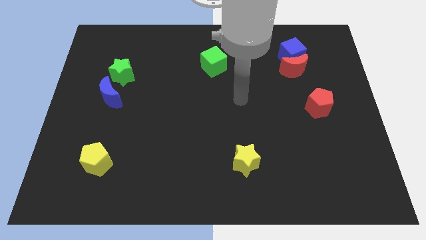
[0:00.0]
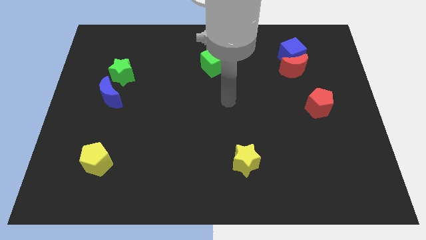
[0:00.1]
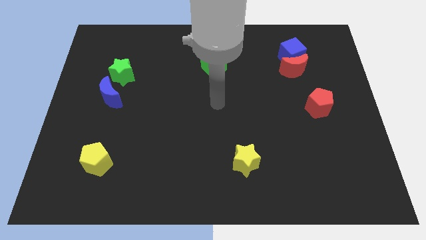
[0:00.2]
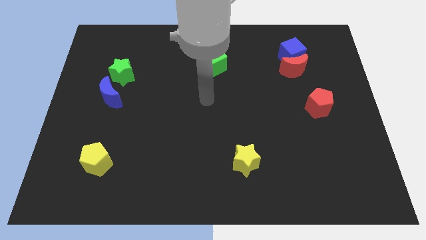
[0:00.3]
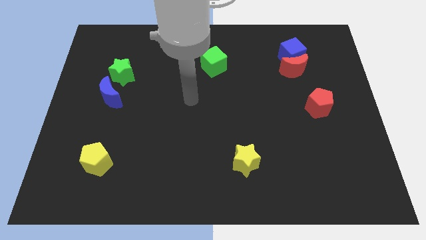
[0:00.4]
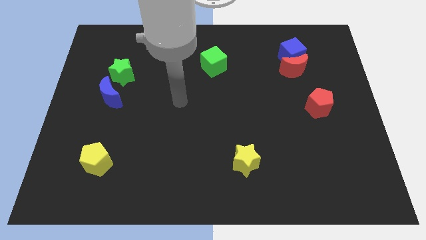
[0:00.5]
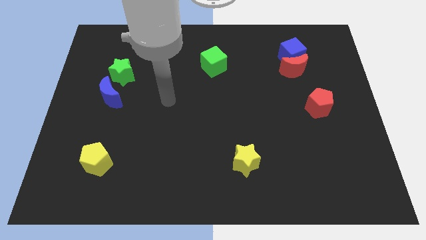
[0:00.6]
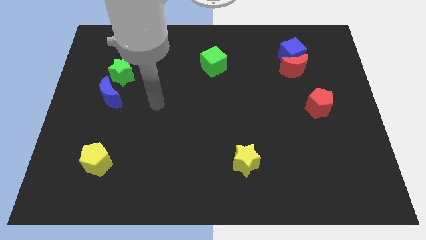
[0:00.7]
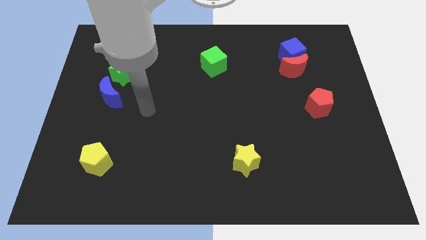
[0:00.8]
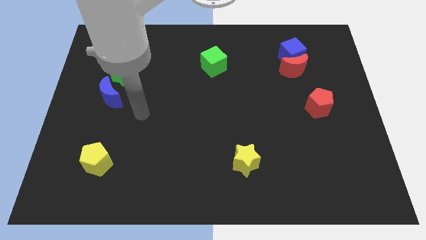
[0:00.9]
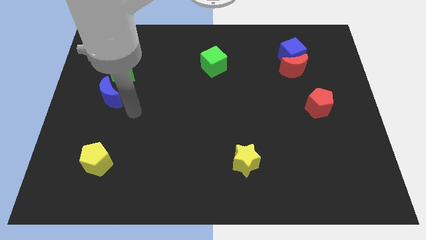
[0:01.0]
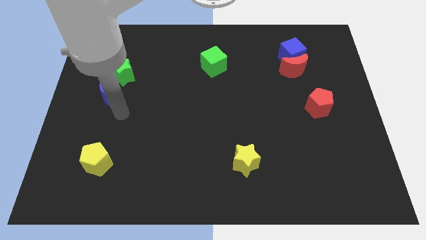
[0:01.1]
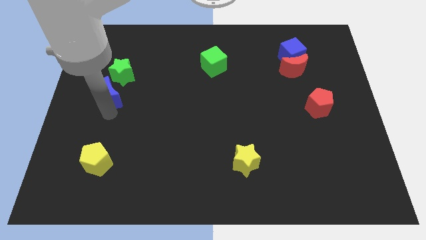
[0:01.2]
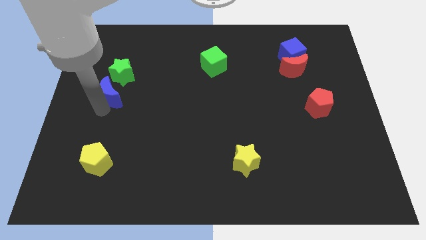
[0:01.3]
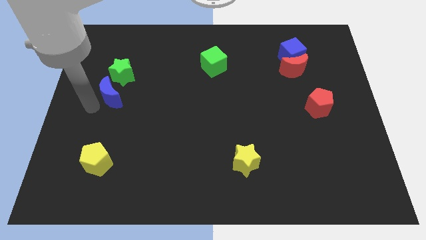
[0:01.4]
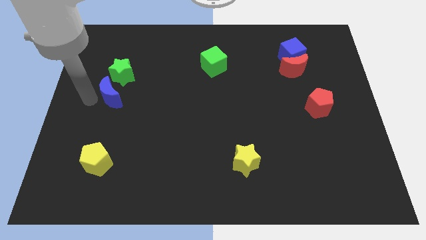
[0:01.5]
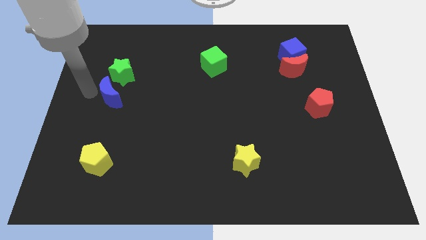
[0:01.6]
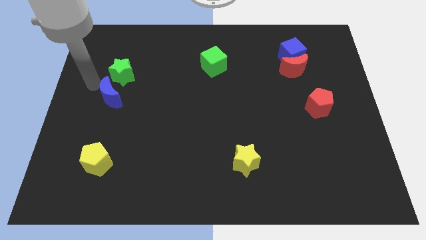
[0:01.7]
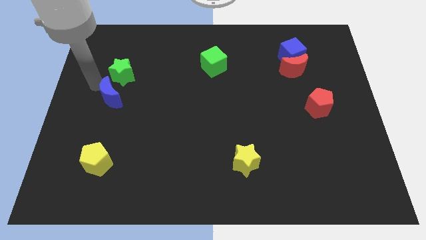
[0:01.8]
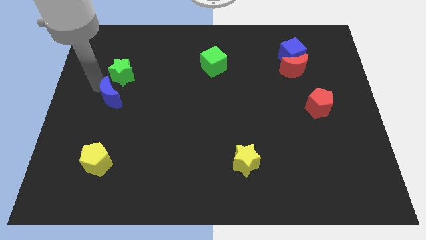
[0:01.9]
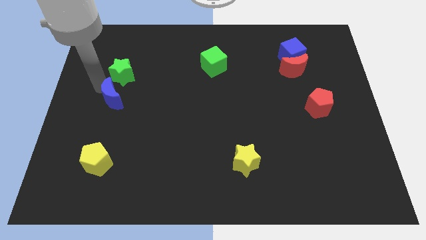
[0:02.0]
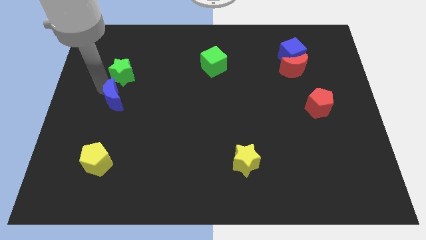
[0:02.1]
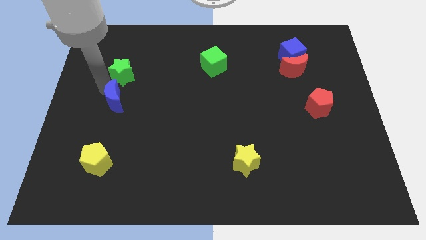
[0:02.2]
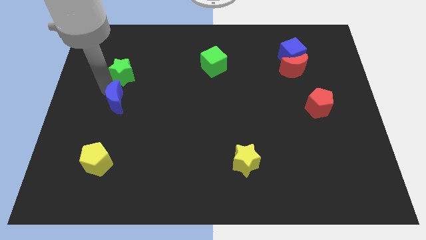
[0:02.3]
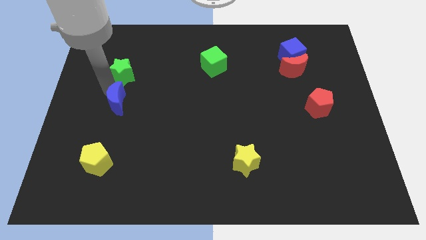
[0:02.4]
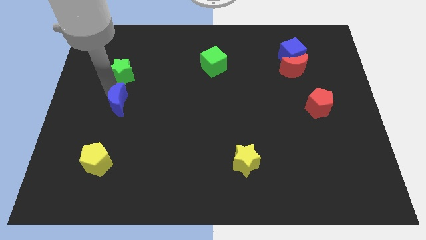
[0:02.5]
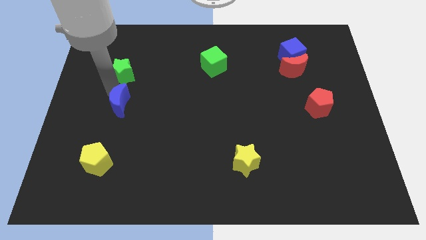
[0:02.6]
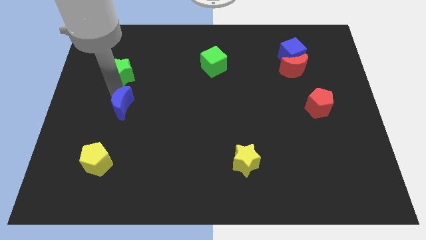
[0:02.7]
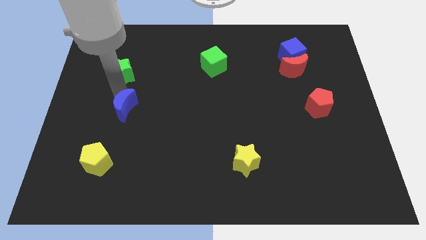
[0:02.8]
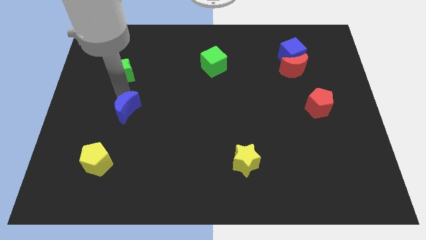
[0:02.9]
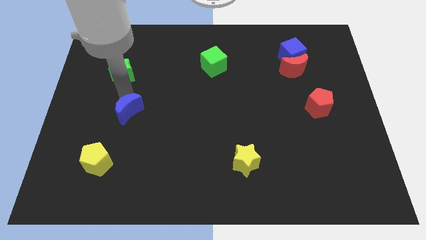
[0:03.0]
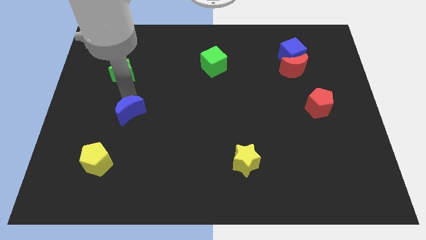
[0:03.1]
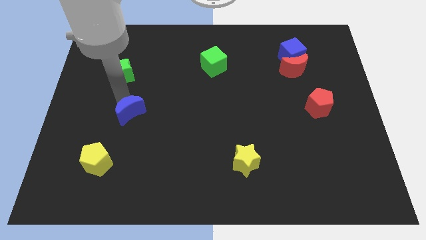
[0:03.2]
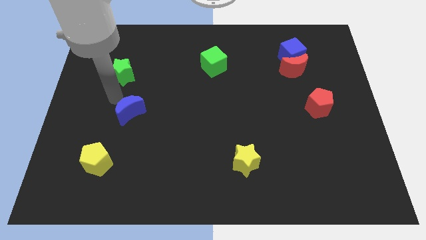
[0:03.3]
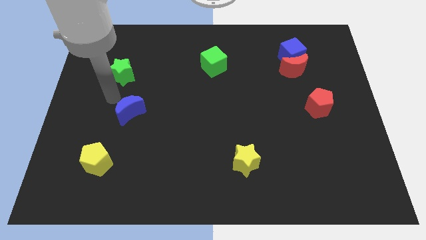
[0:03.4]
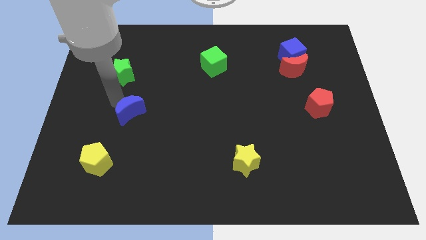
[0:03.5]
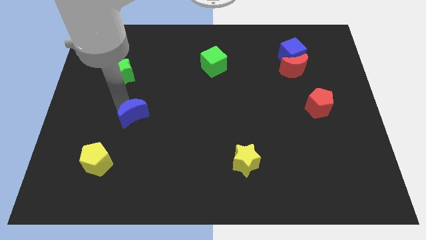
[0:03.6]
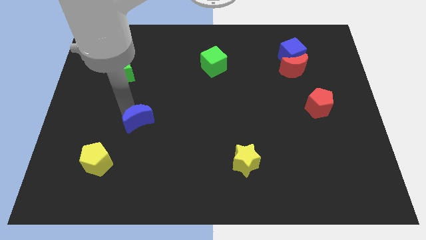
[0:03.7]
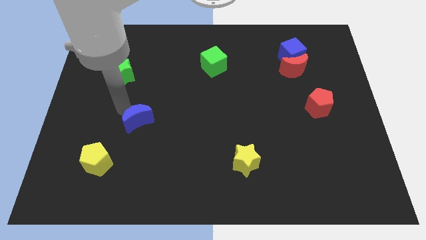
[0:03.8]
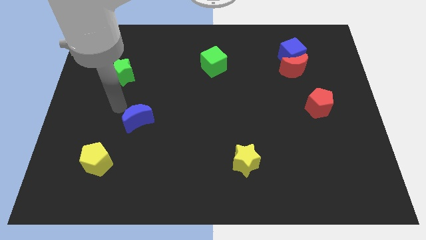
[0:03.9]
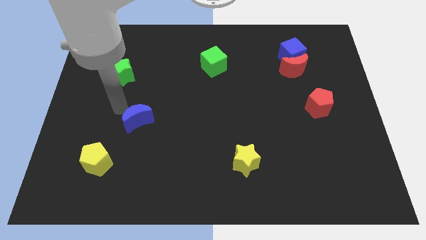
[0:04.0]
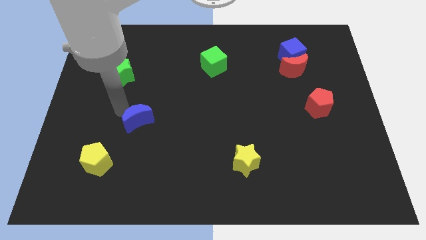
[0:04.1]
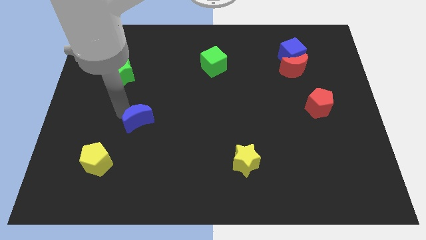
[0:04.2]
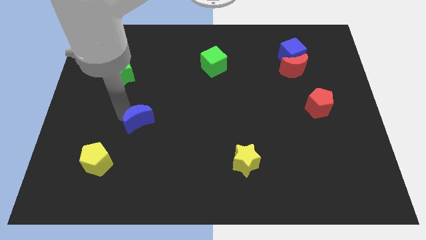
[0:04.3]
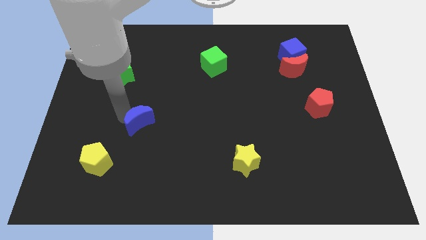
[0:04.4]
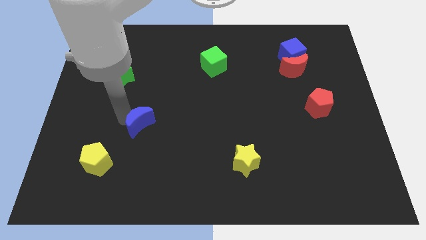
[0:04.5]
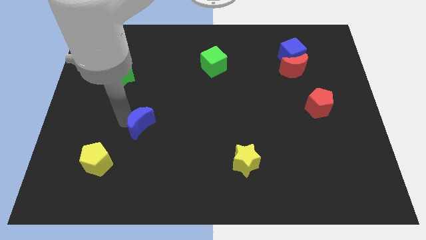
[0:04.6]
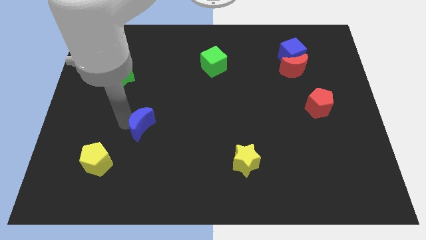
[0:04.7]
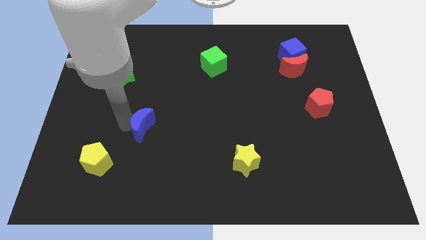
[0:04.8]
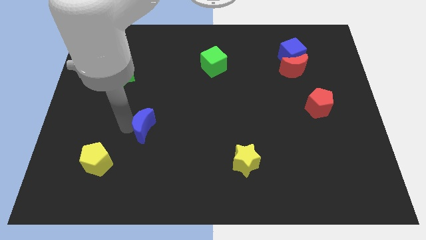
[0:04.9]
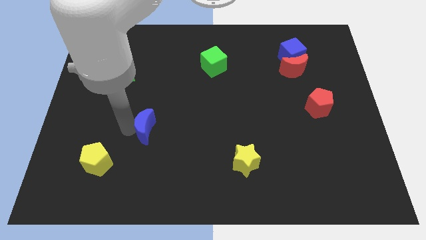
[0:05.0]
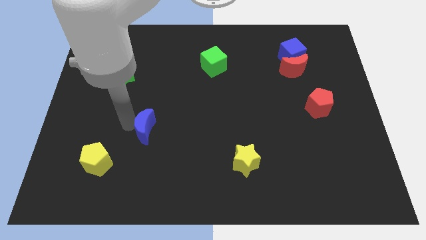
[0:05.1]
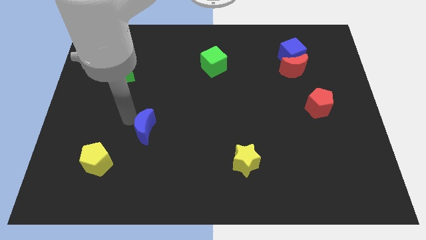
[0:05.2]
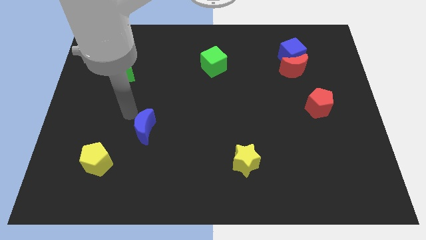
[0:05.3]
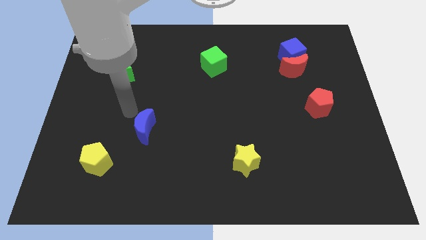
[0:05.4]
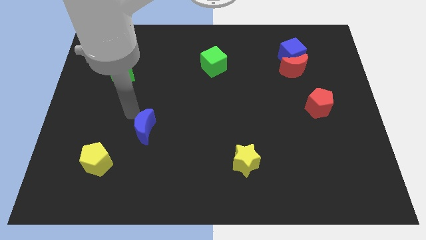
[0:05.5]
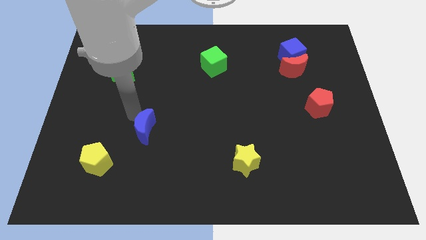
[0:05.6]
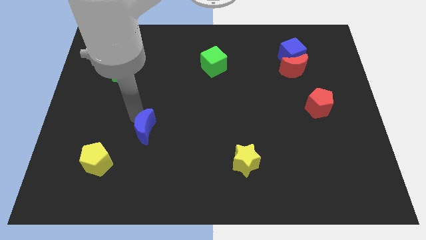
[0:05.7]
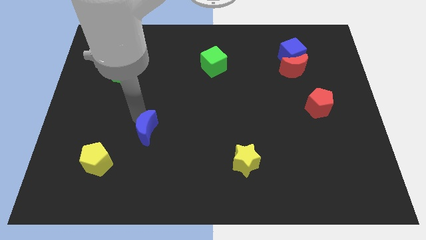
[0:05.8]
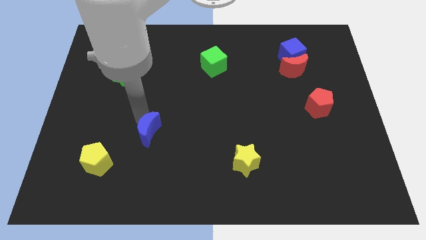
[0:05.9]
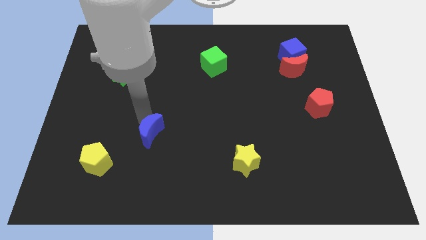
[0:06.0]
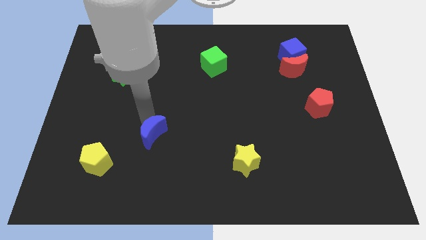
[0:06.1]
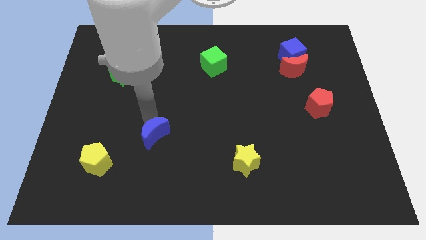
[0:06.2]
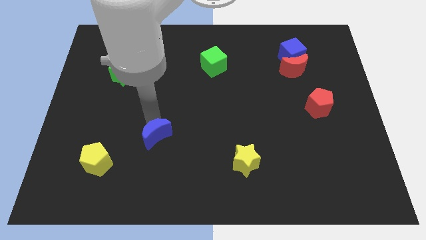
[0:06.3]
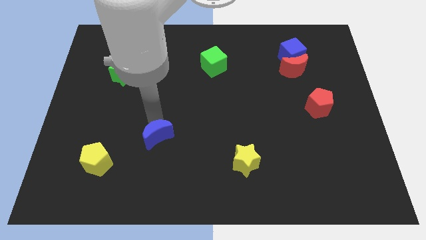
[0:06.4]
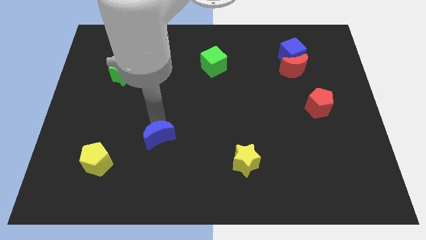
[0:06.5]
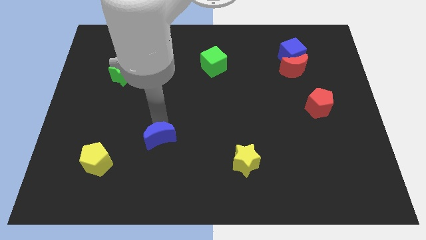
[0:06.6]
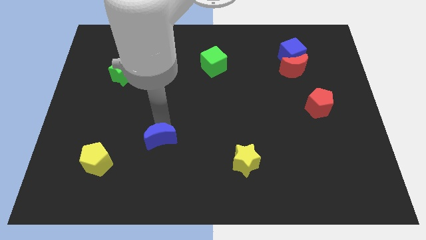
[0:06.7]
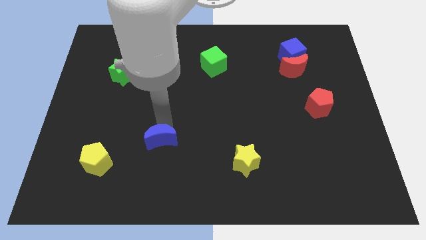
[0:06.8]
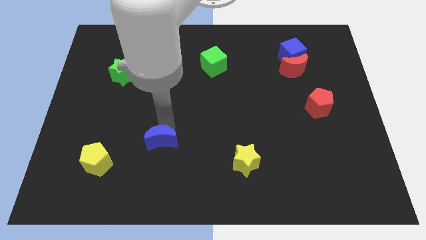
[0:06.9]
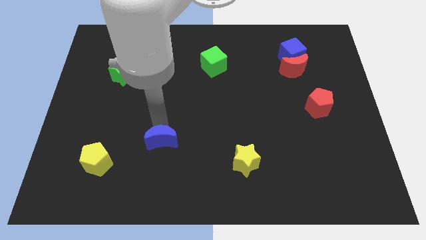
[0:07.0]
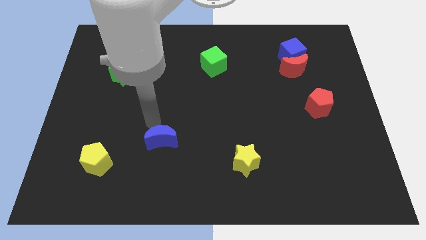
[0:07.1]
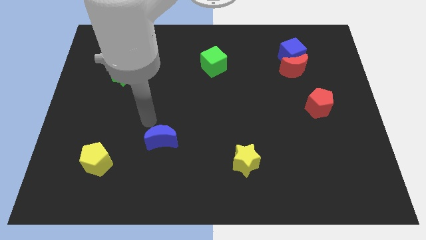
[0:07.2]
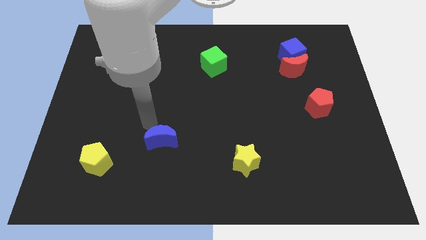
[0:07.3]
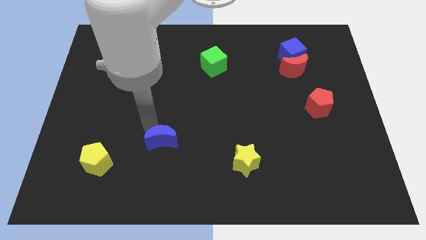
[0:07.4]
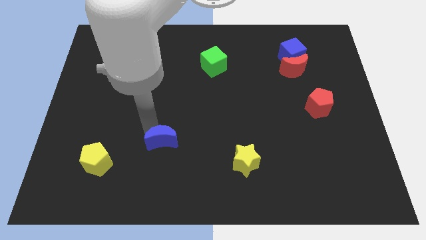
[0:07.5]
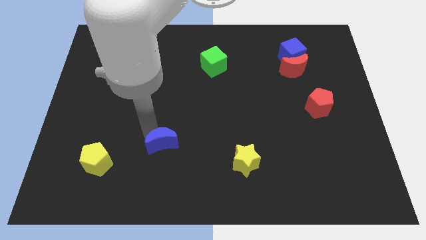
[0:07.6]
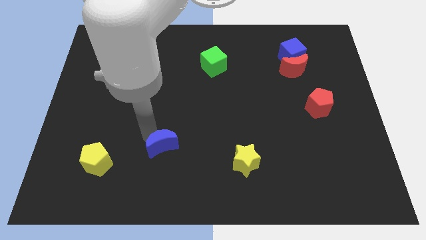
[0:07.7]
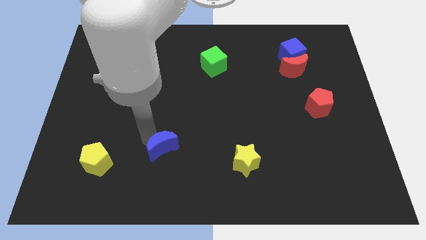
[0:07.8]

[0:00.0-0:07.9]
slide the blue moon down and to the right
